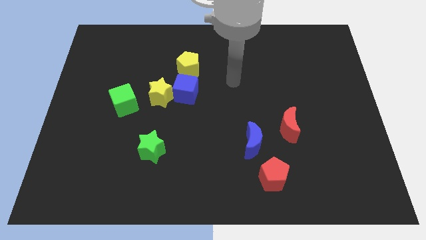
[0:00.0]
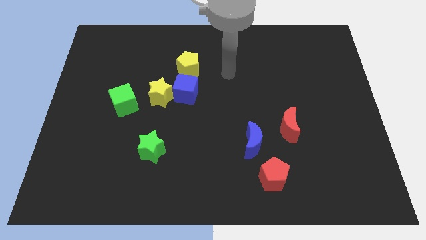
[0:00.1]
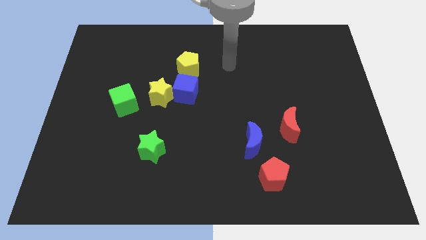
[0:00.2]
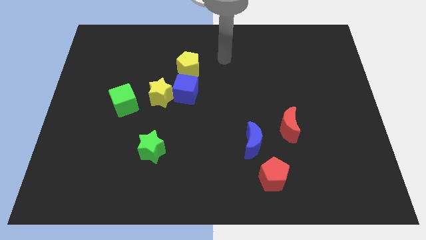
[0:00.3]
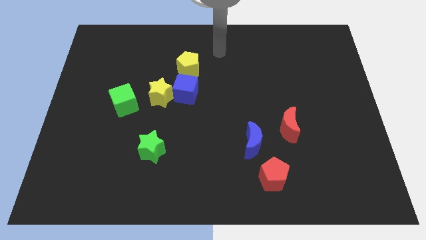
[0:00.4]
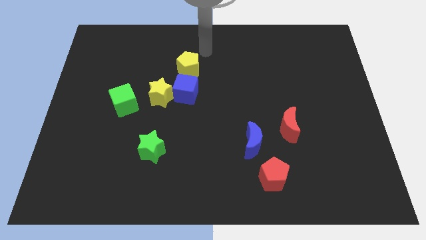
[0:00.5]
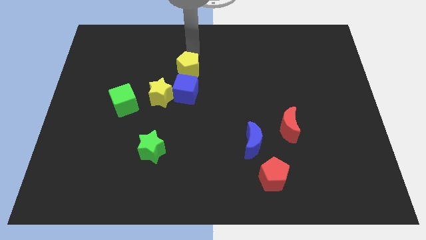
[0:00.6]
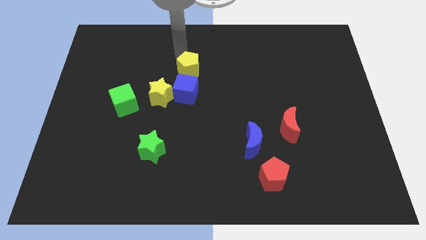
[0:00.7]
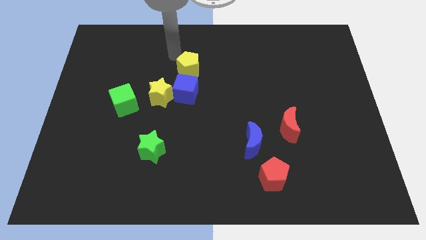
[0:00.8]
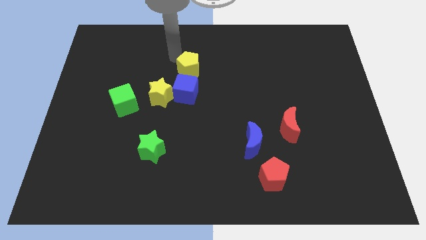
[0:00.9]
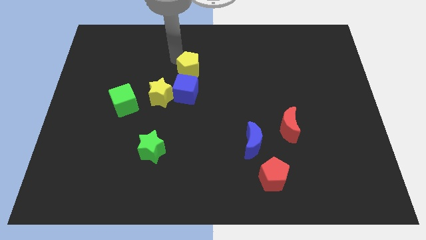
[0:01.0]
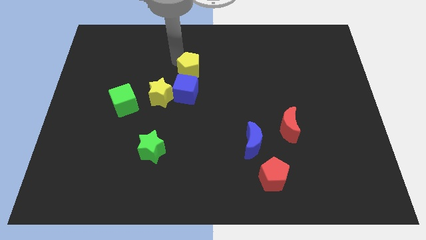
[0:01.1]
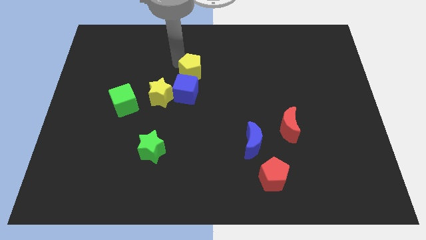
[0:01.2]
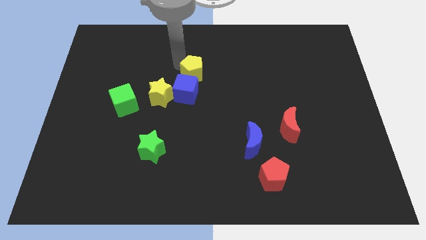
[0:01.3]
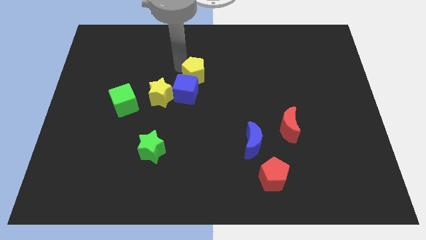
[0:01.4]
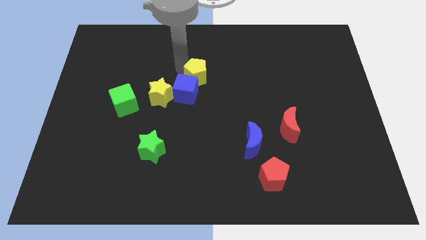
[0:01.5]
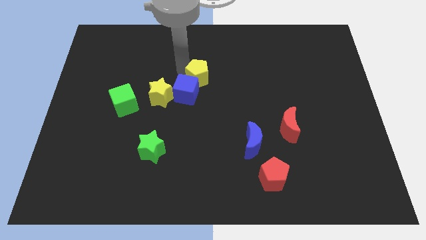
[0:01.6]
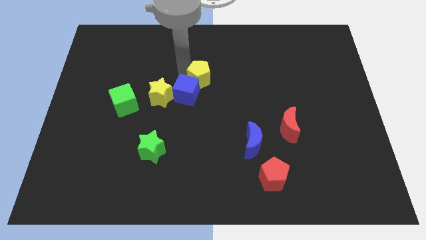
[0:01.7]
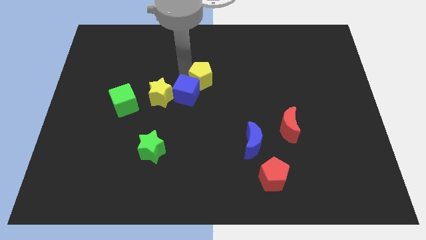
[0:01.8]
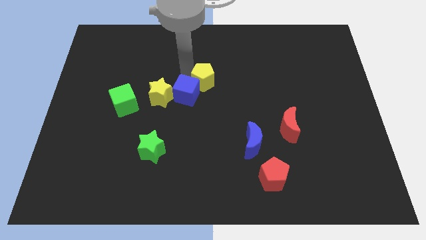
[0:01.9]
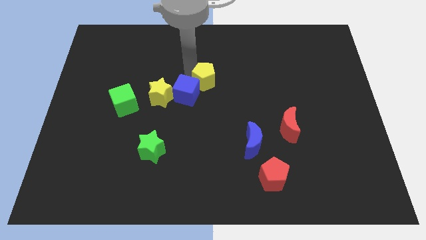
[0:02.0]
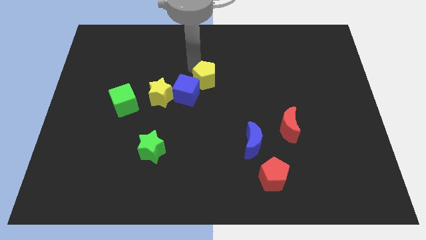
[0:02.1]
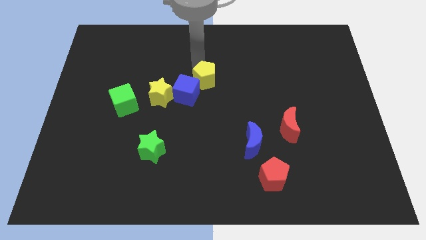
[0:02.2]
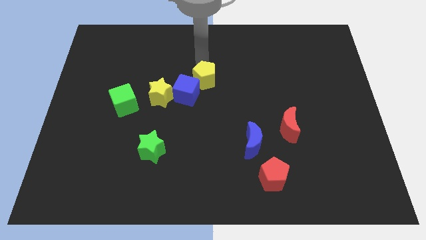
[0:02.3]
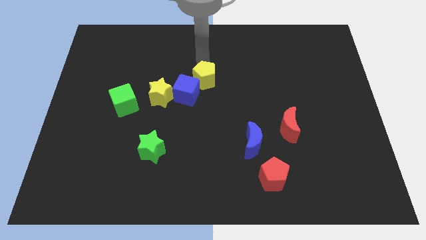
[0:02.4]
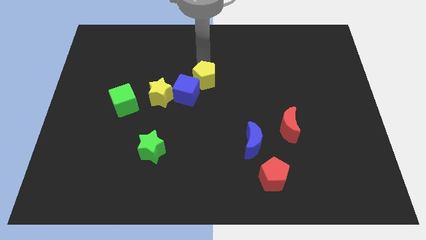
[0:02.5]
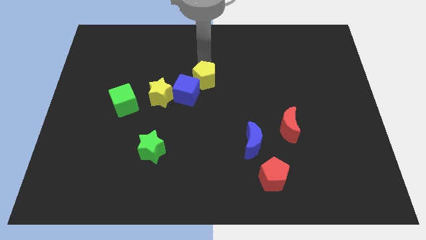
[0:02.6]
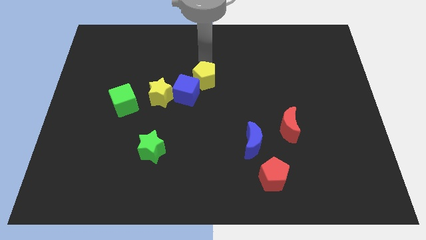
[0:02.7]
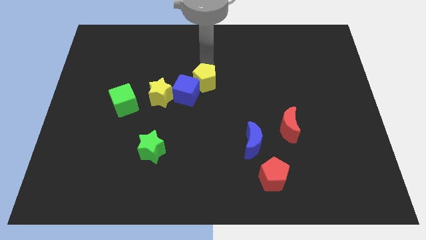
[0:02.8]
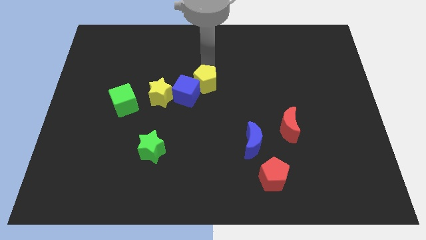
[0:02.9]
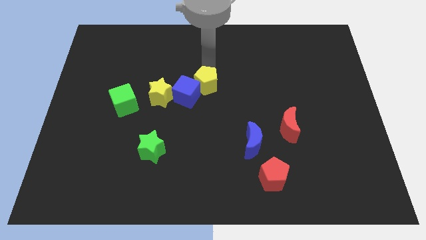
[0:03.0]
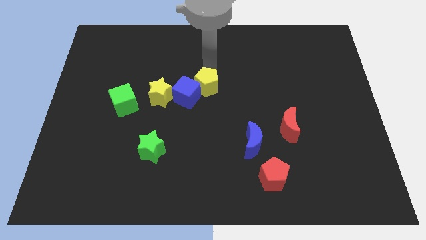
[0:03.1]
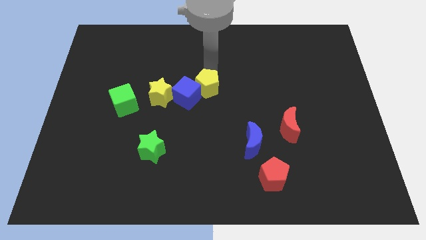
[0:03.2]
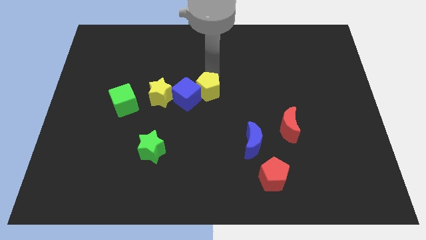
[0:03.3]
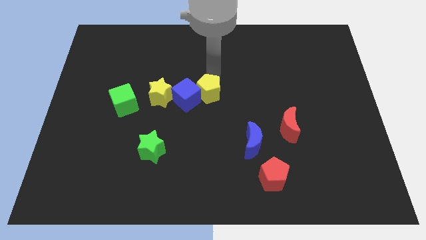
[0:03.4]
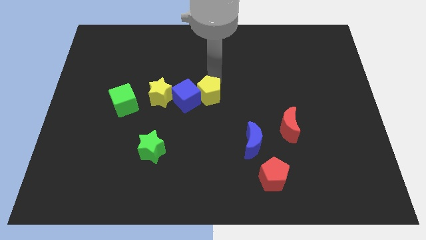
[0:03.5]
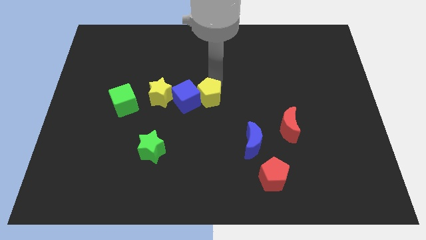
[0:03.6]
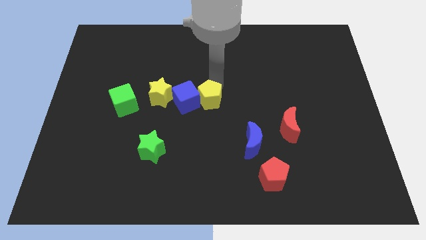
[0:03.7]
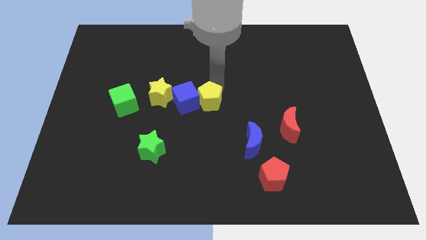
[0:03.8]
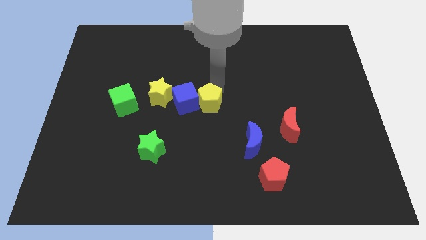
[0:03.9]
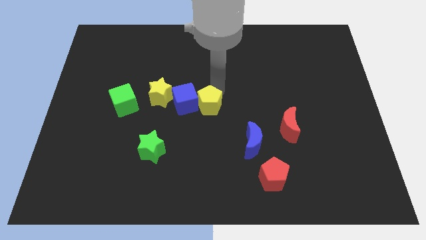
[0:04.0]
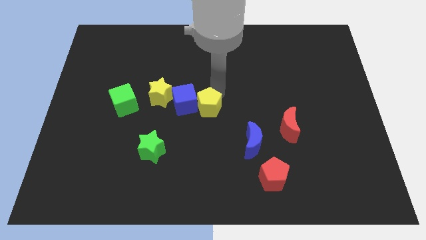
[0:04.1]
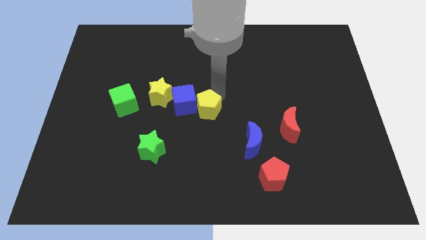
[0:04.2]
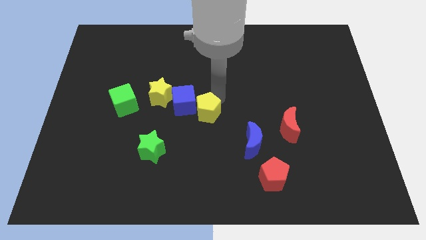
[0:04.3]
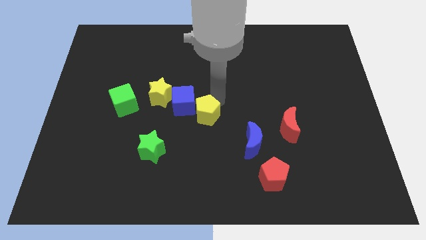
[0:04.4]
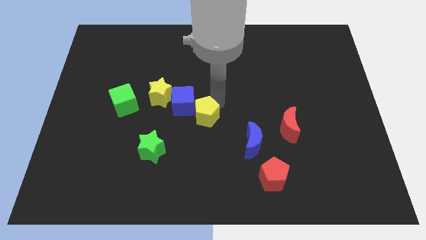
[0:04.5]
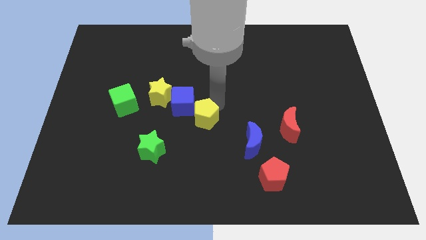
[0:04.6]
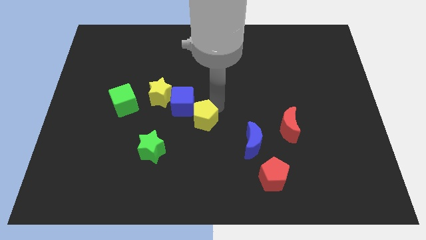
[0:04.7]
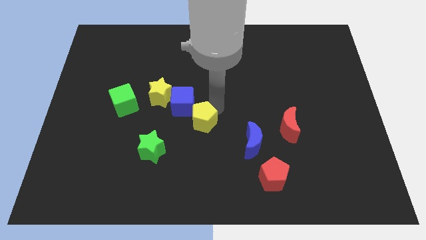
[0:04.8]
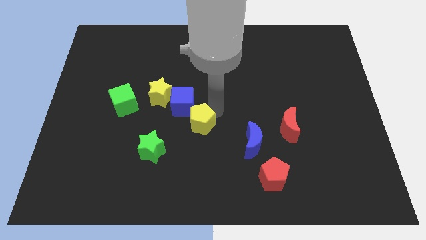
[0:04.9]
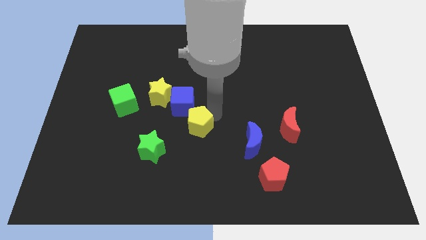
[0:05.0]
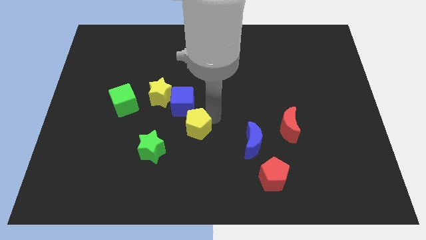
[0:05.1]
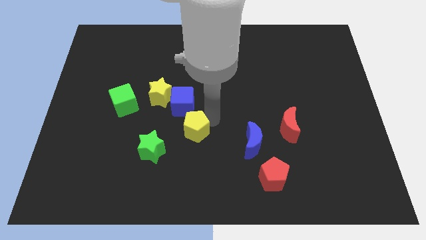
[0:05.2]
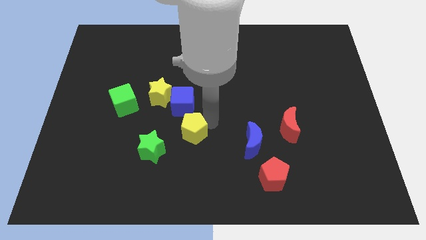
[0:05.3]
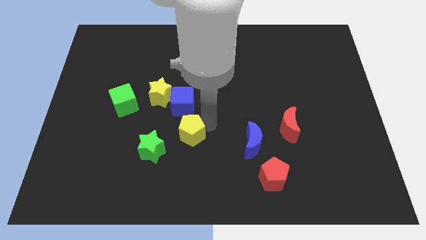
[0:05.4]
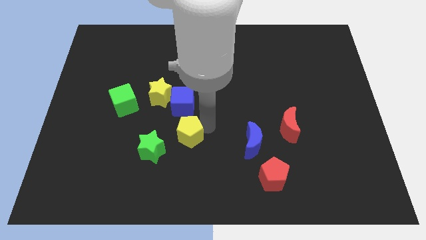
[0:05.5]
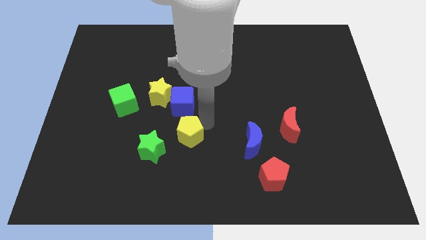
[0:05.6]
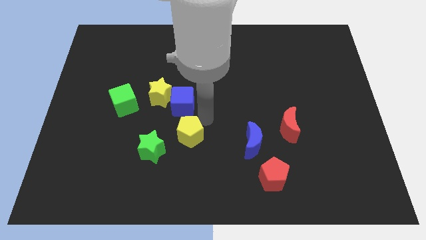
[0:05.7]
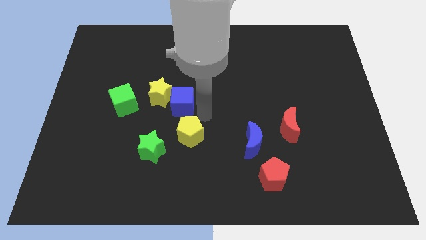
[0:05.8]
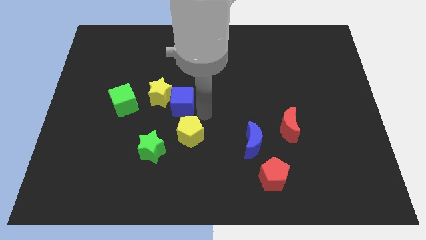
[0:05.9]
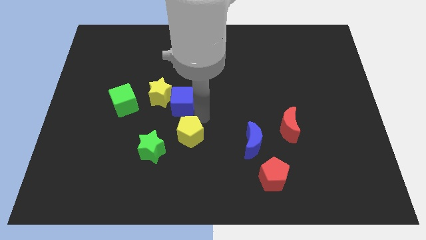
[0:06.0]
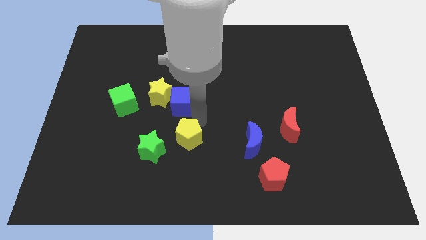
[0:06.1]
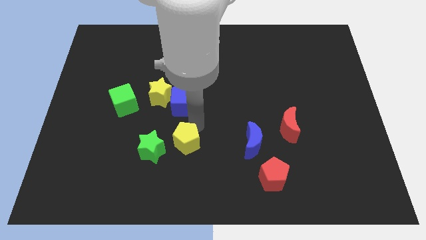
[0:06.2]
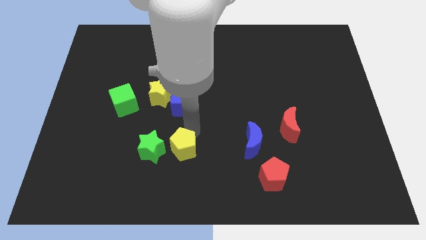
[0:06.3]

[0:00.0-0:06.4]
move the yellow pentagon to the bottom right side of the green star
